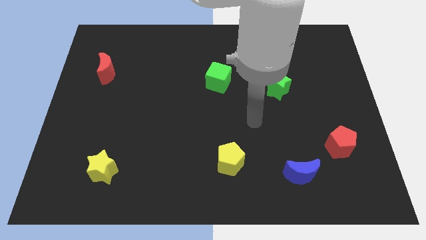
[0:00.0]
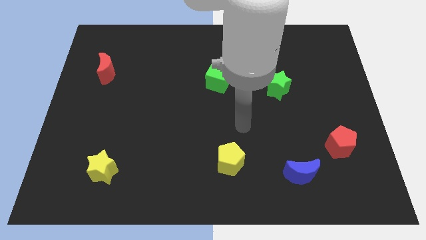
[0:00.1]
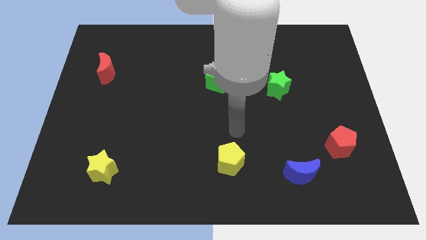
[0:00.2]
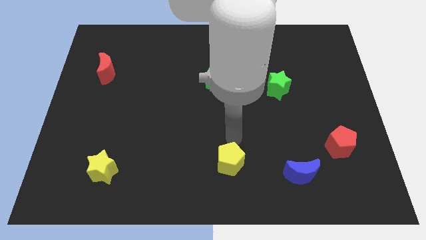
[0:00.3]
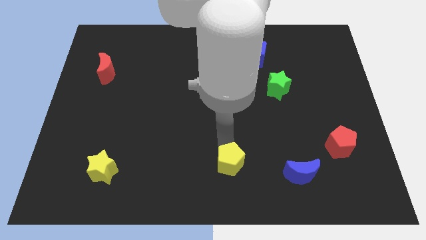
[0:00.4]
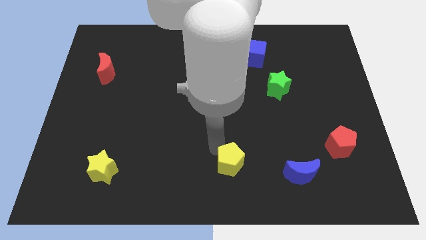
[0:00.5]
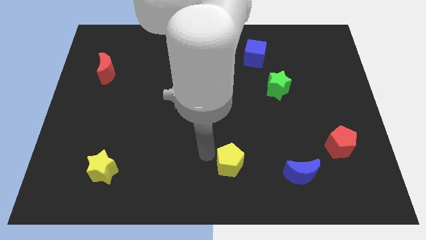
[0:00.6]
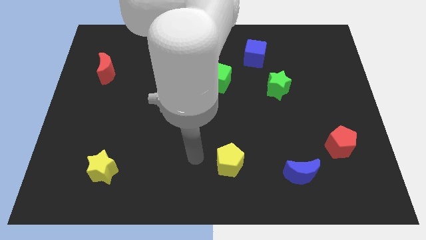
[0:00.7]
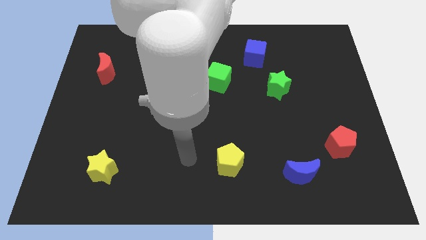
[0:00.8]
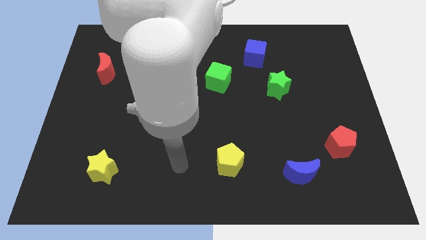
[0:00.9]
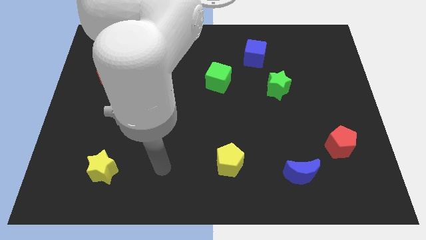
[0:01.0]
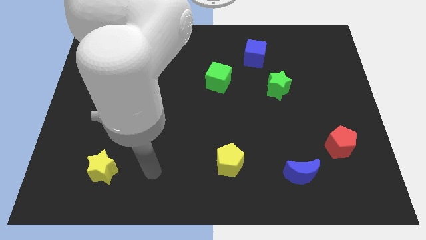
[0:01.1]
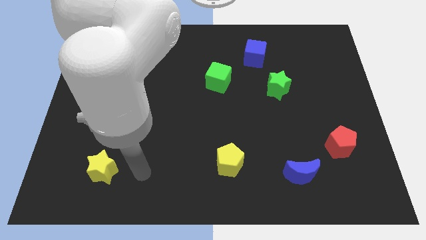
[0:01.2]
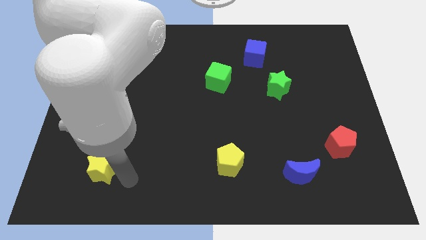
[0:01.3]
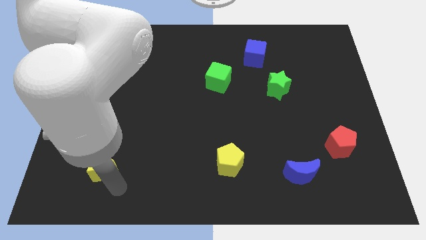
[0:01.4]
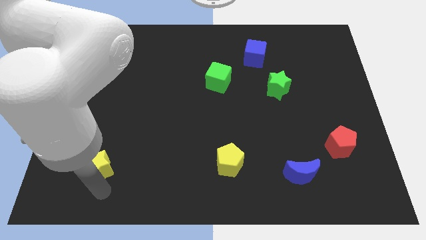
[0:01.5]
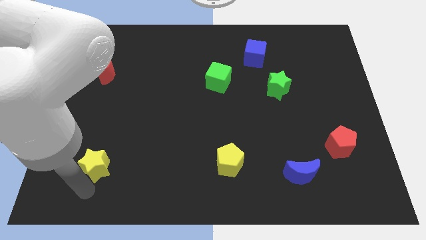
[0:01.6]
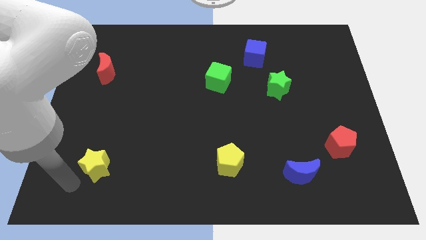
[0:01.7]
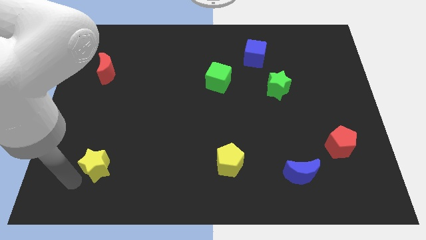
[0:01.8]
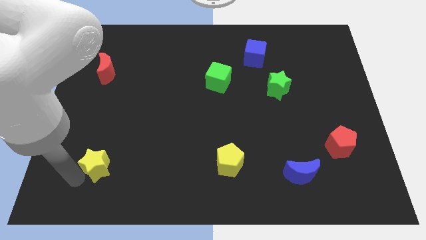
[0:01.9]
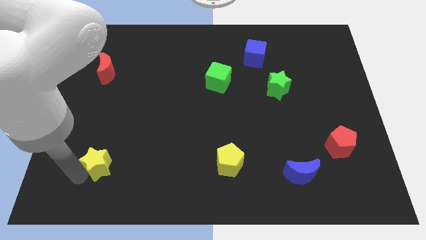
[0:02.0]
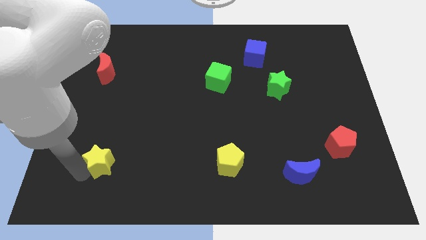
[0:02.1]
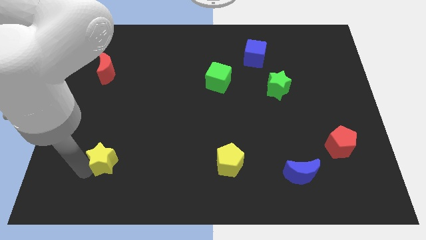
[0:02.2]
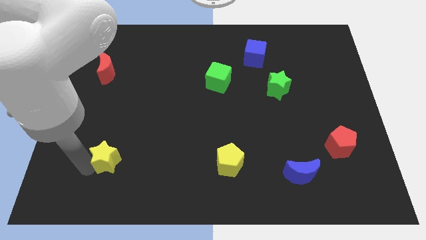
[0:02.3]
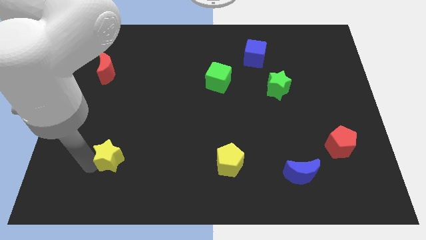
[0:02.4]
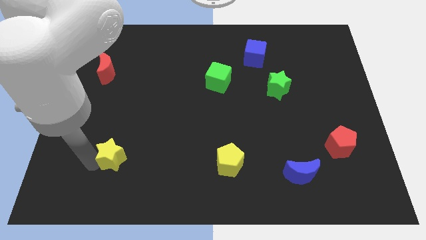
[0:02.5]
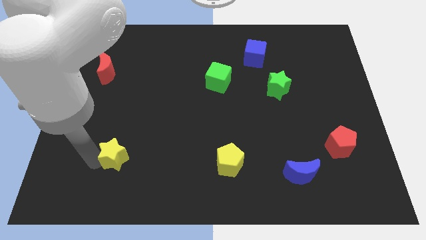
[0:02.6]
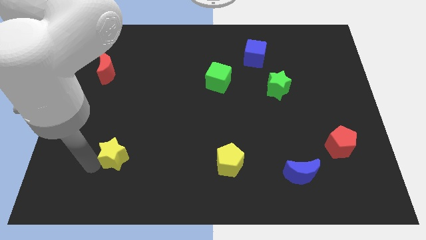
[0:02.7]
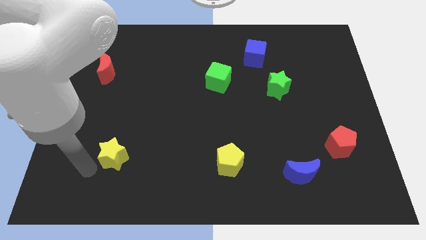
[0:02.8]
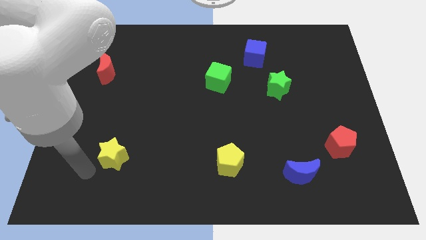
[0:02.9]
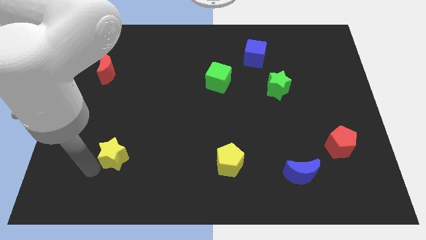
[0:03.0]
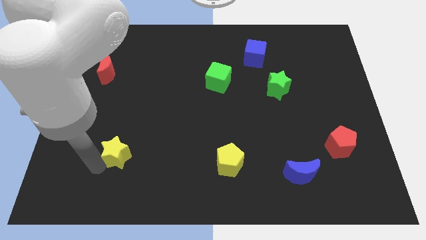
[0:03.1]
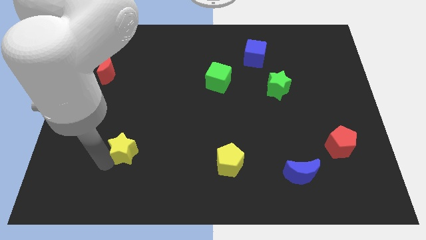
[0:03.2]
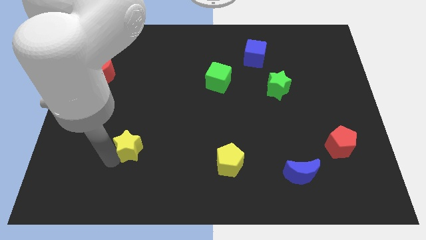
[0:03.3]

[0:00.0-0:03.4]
slide the yellow star a little bit upwards and right

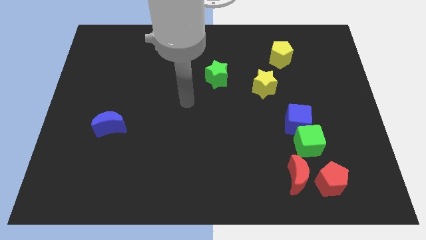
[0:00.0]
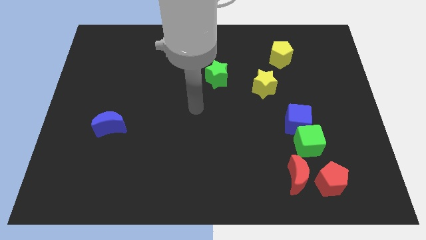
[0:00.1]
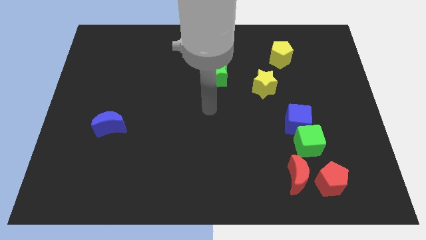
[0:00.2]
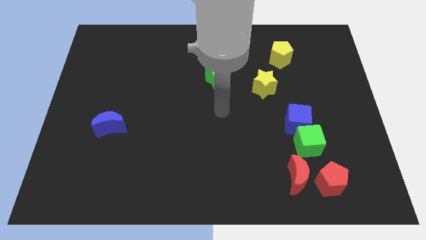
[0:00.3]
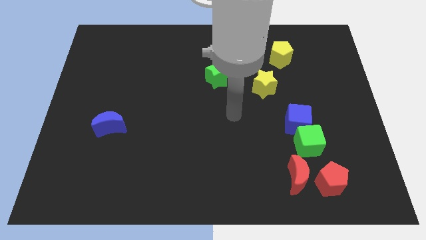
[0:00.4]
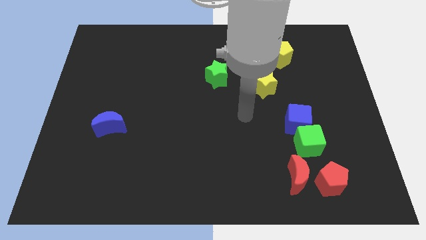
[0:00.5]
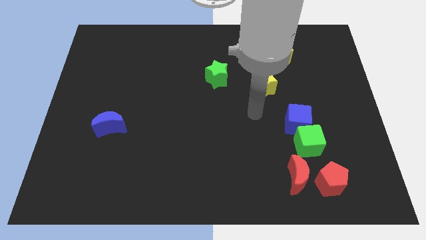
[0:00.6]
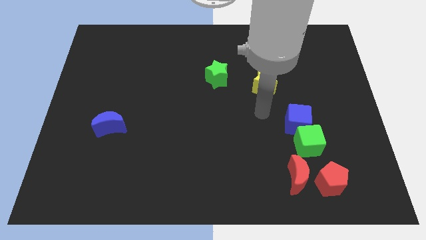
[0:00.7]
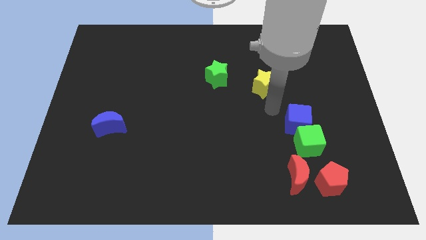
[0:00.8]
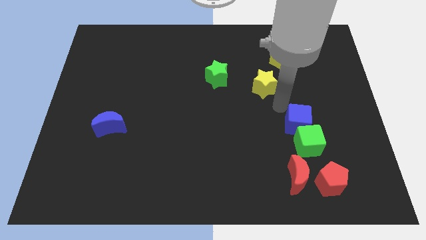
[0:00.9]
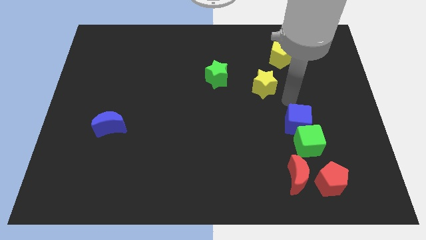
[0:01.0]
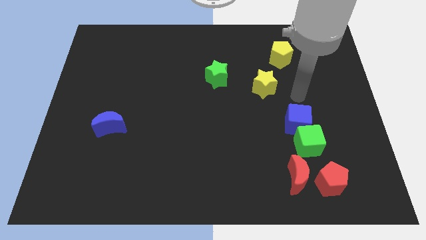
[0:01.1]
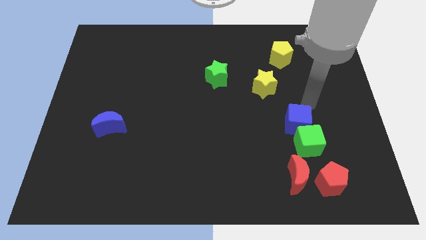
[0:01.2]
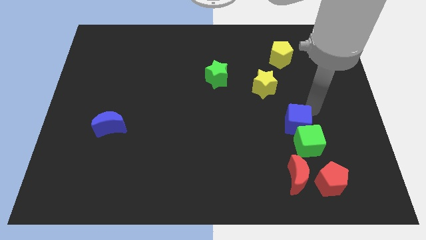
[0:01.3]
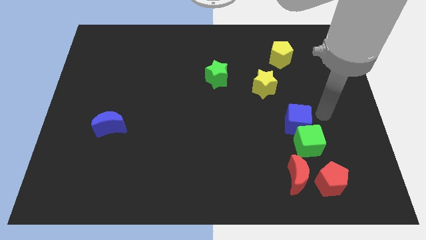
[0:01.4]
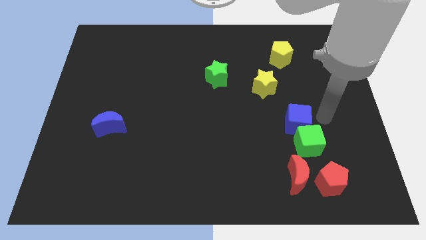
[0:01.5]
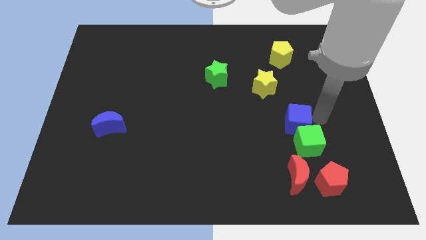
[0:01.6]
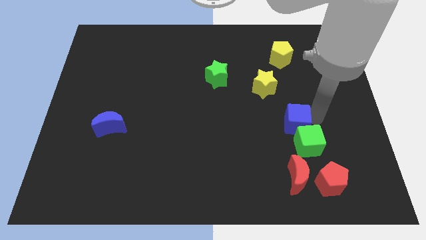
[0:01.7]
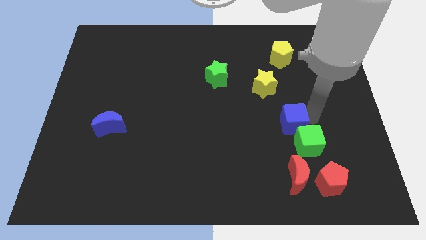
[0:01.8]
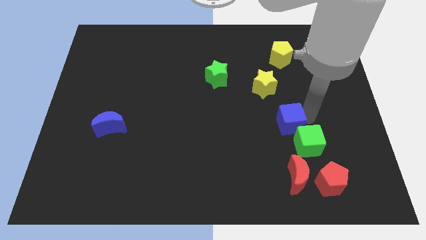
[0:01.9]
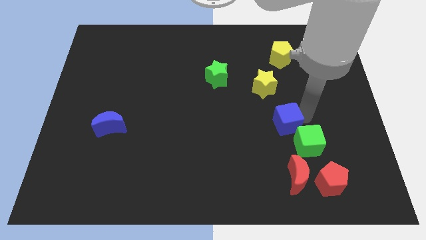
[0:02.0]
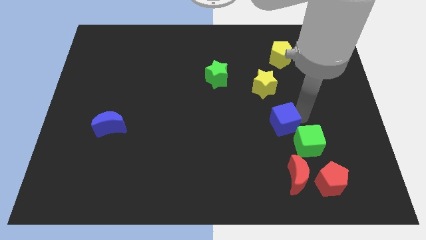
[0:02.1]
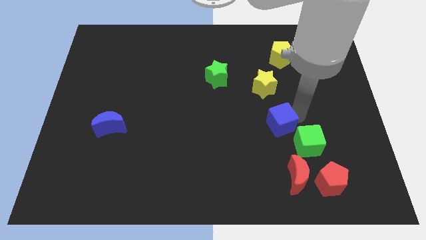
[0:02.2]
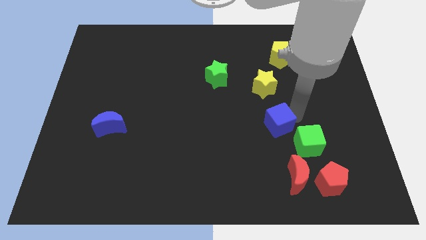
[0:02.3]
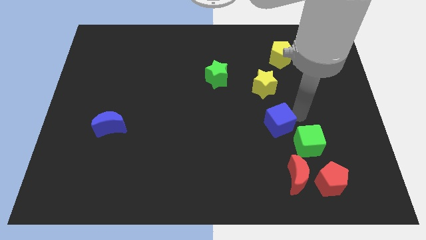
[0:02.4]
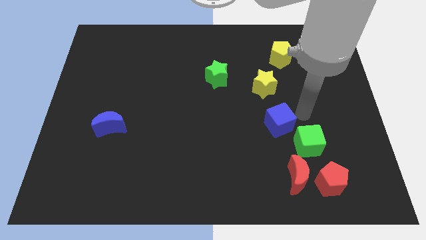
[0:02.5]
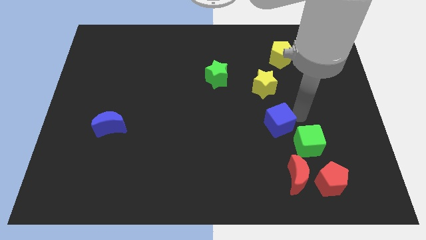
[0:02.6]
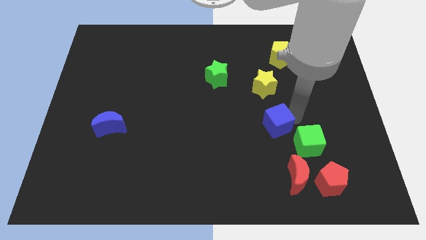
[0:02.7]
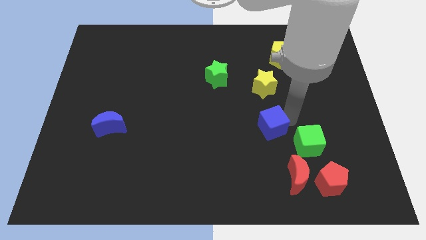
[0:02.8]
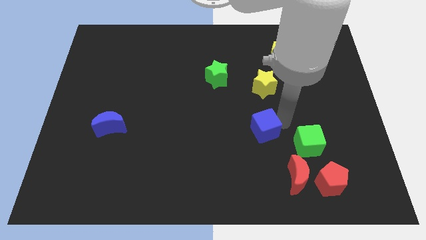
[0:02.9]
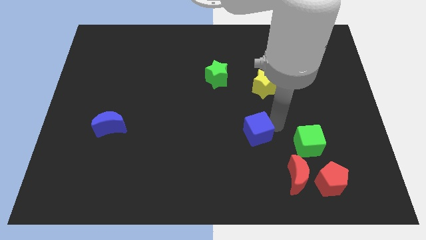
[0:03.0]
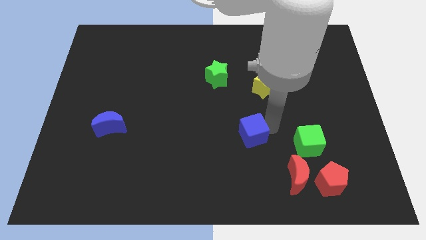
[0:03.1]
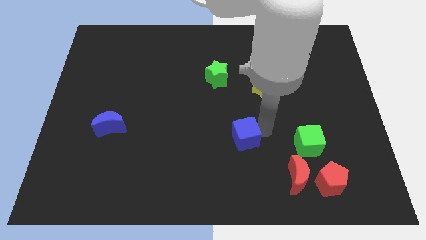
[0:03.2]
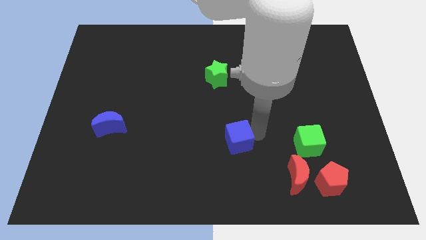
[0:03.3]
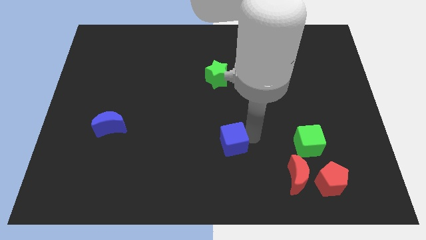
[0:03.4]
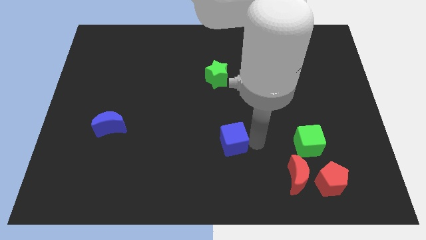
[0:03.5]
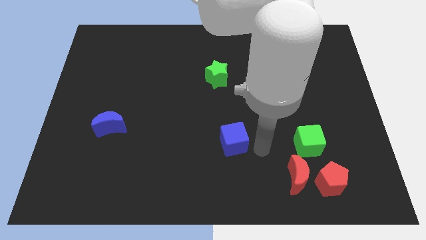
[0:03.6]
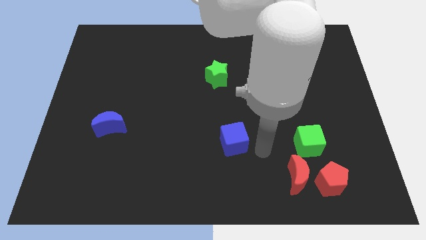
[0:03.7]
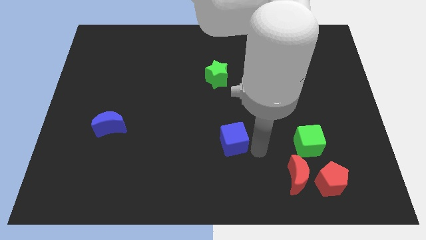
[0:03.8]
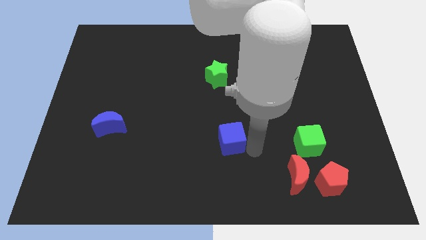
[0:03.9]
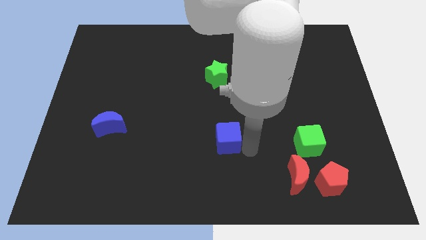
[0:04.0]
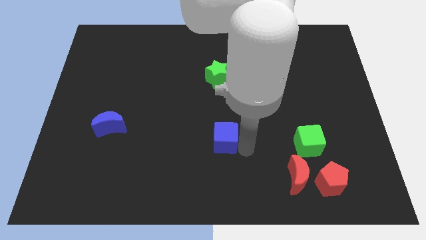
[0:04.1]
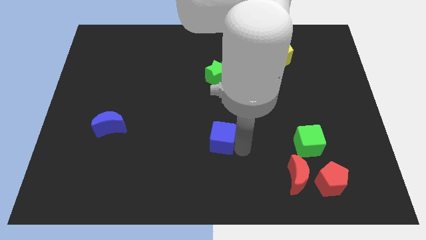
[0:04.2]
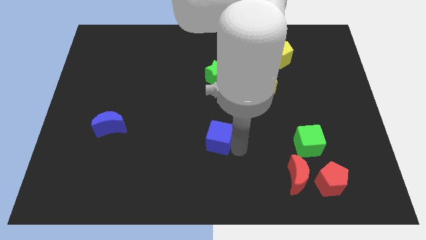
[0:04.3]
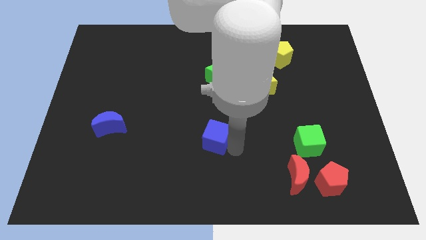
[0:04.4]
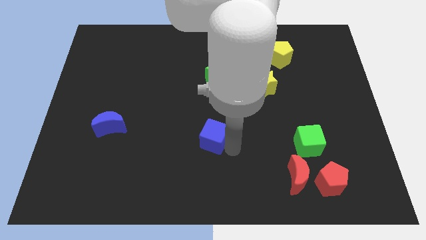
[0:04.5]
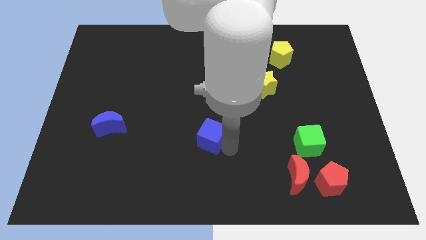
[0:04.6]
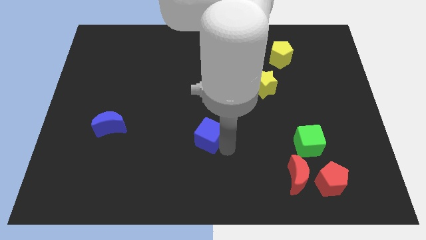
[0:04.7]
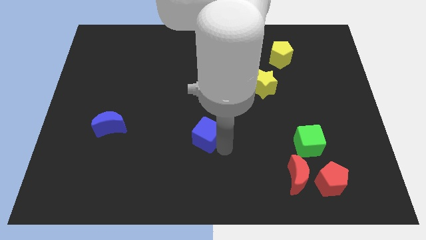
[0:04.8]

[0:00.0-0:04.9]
push the blue cube left
